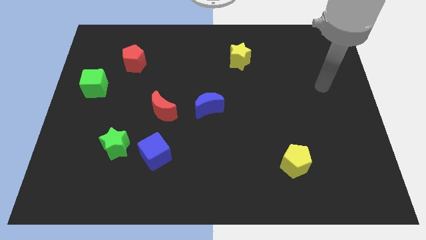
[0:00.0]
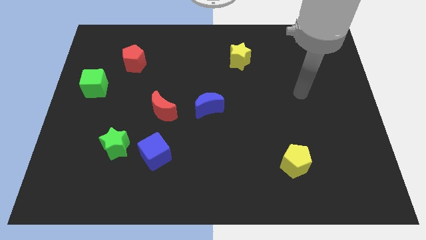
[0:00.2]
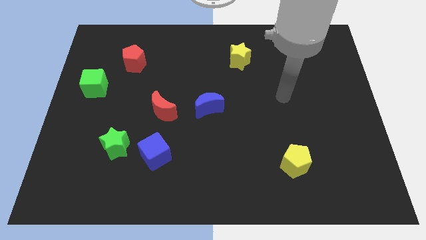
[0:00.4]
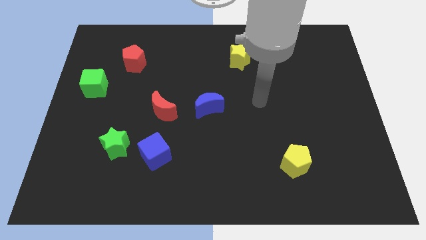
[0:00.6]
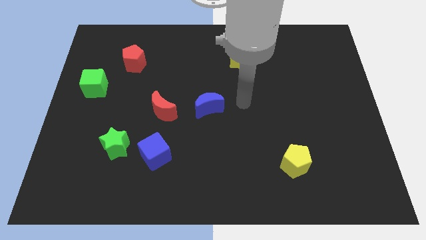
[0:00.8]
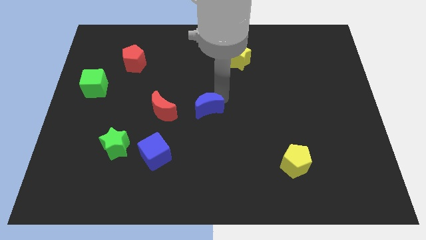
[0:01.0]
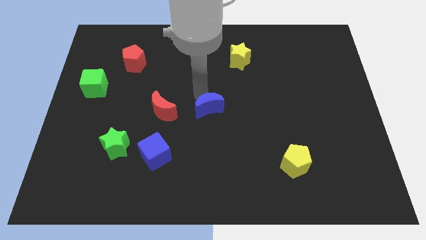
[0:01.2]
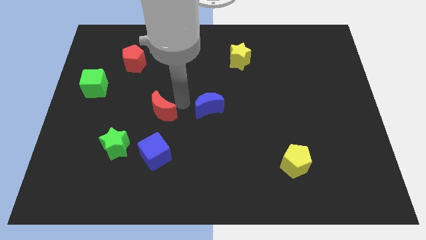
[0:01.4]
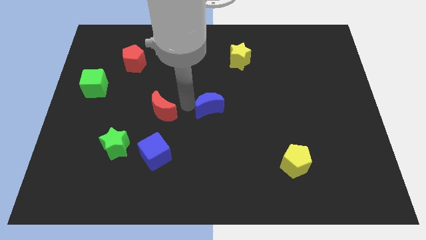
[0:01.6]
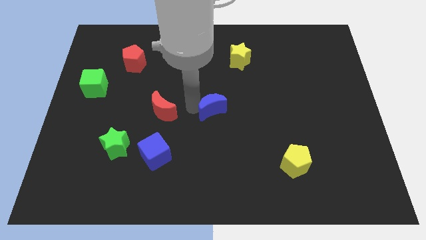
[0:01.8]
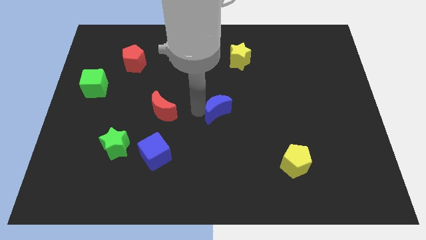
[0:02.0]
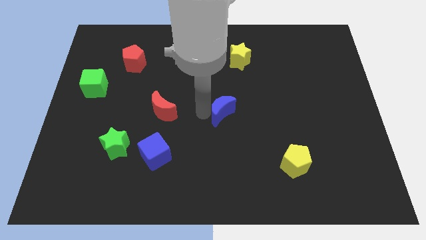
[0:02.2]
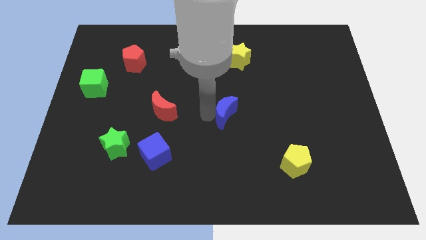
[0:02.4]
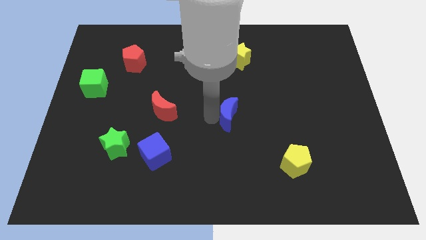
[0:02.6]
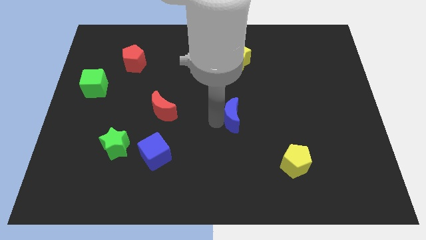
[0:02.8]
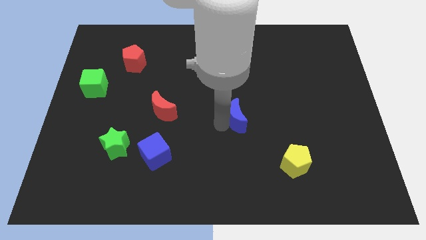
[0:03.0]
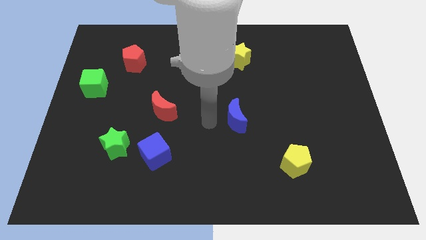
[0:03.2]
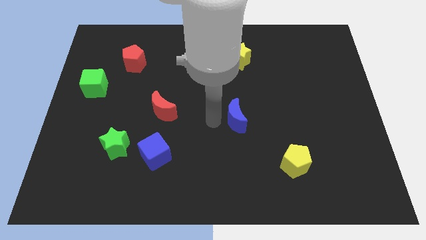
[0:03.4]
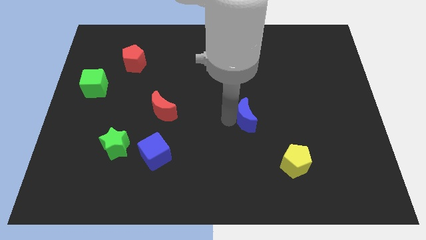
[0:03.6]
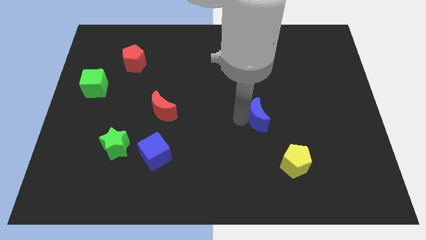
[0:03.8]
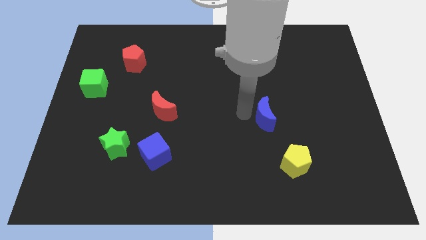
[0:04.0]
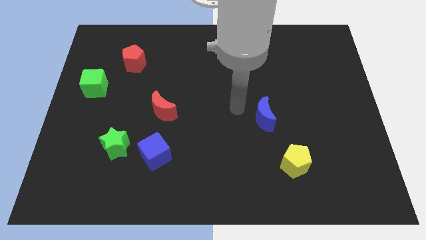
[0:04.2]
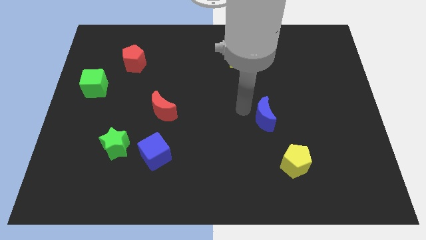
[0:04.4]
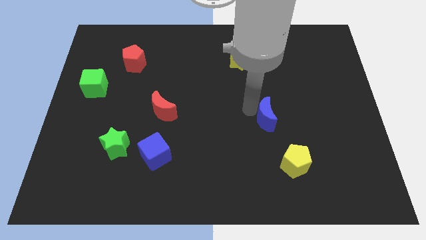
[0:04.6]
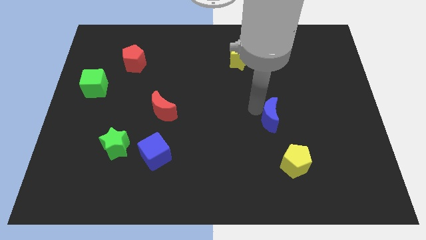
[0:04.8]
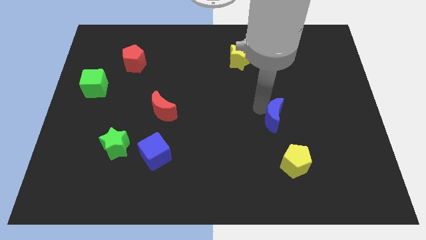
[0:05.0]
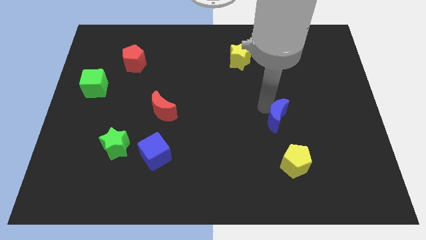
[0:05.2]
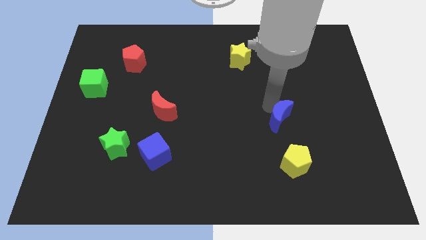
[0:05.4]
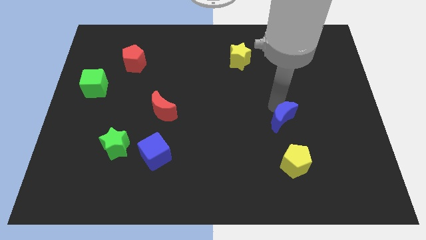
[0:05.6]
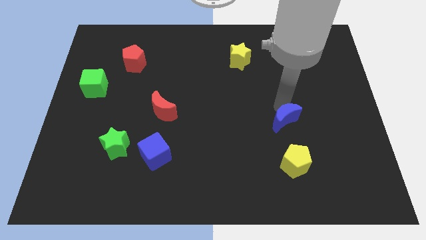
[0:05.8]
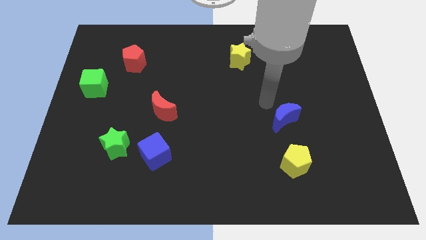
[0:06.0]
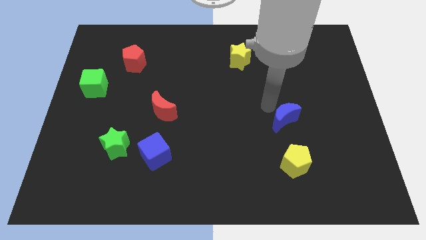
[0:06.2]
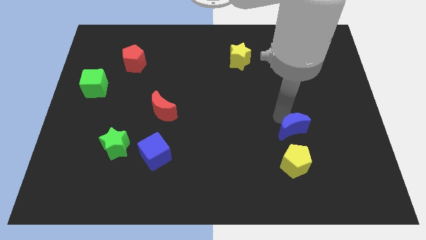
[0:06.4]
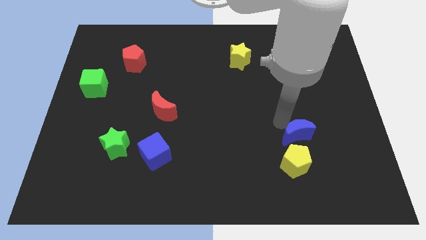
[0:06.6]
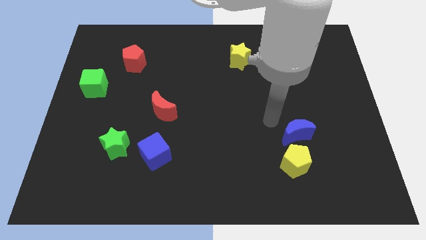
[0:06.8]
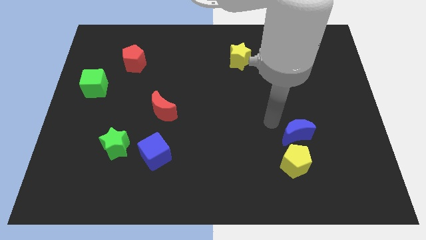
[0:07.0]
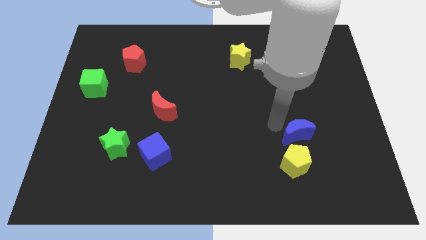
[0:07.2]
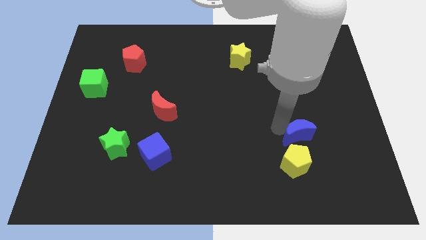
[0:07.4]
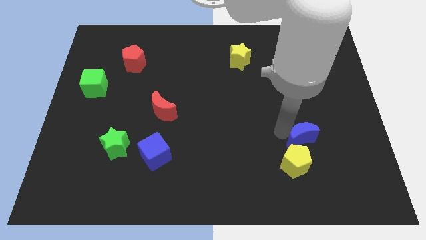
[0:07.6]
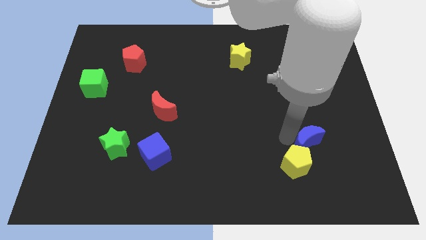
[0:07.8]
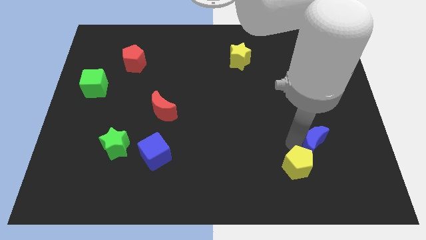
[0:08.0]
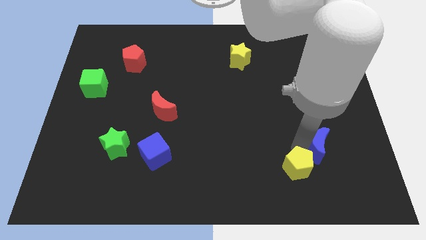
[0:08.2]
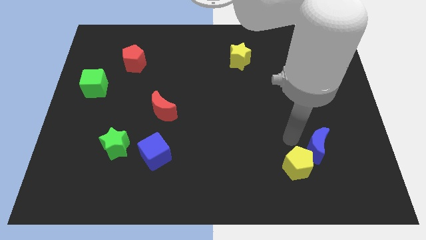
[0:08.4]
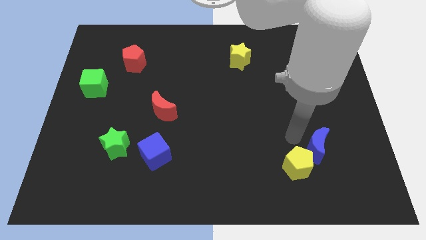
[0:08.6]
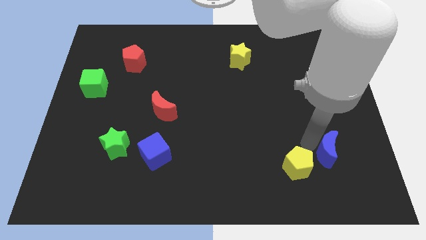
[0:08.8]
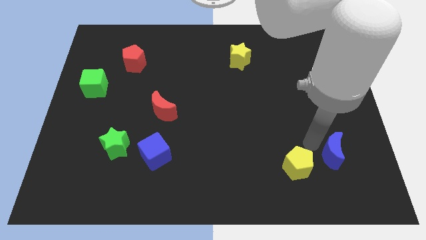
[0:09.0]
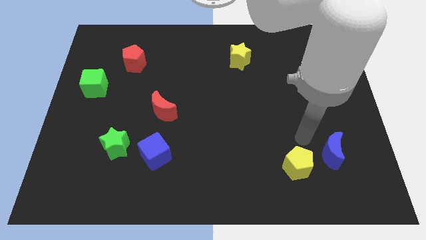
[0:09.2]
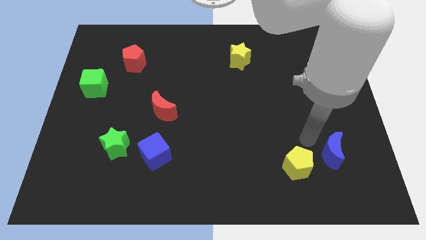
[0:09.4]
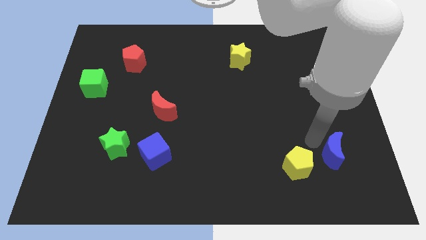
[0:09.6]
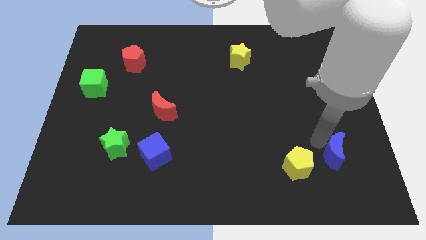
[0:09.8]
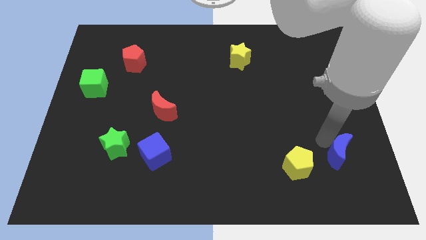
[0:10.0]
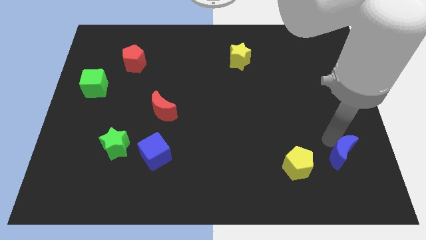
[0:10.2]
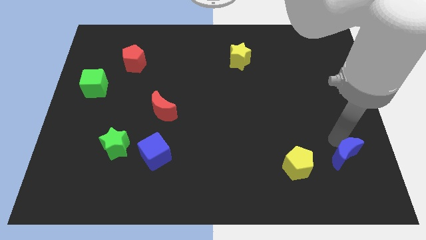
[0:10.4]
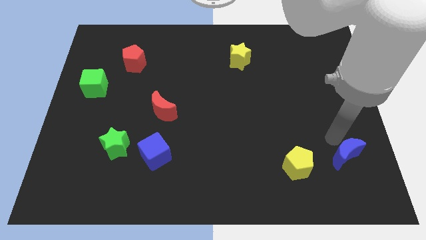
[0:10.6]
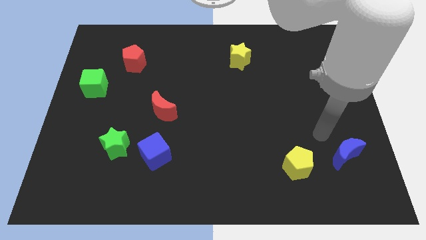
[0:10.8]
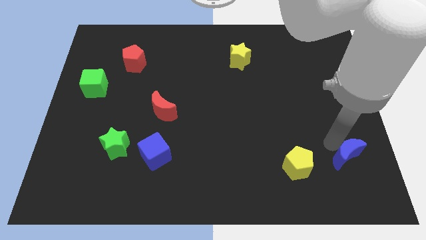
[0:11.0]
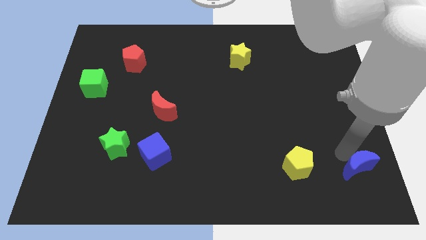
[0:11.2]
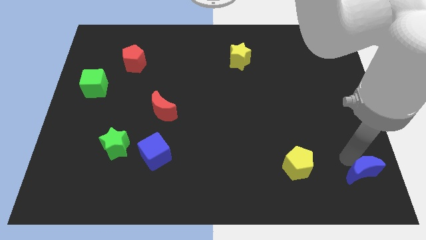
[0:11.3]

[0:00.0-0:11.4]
slide the blue moon to the bottom right corner
